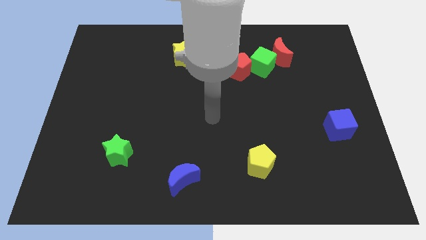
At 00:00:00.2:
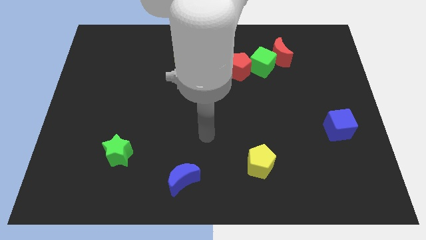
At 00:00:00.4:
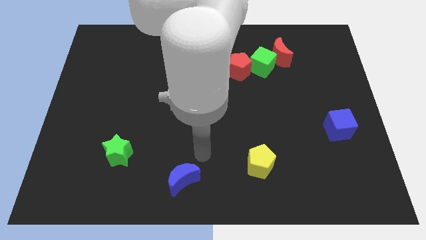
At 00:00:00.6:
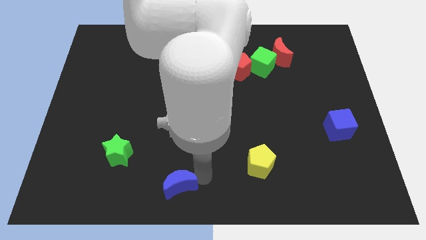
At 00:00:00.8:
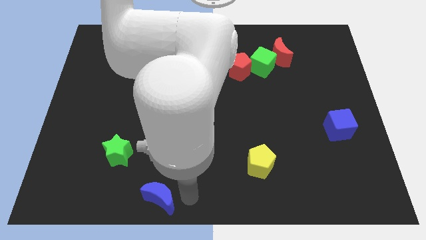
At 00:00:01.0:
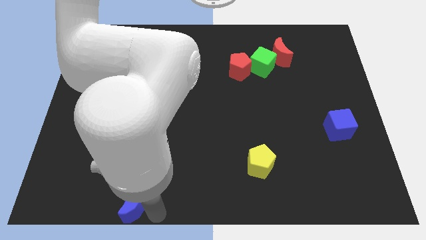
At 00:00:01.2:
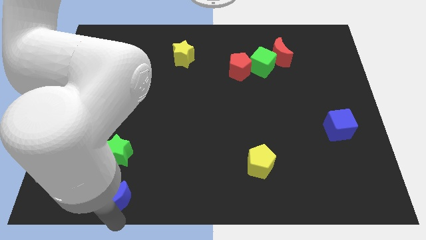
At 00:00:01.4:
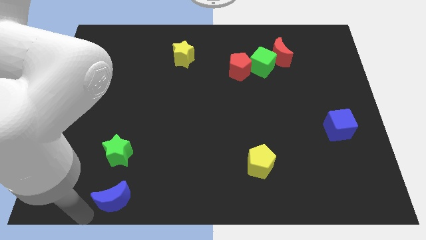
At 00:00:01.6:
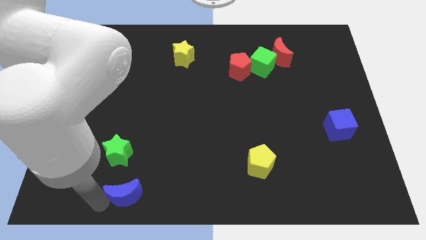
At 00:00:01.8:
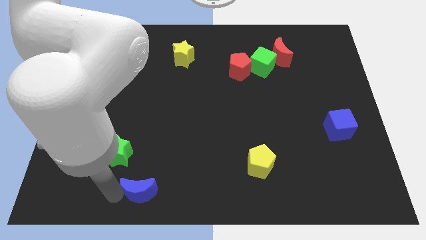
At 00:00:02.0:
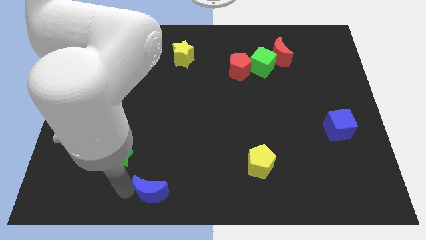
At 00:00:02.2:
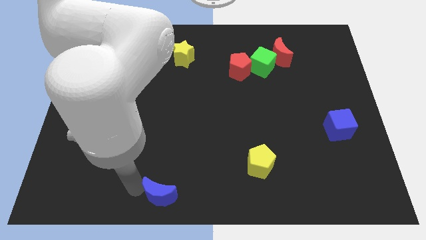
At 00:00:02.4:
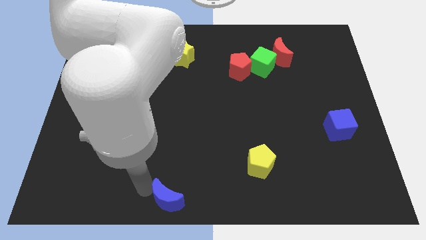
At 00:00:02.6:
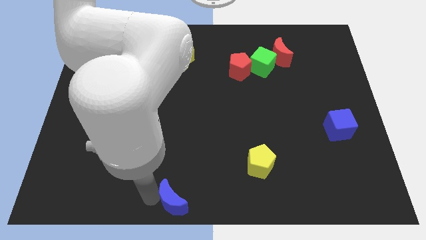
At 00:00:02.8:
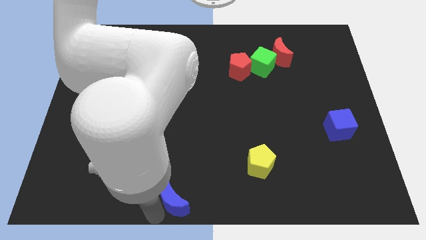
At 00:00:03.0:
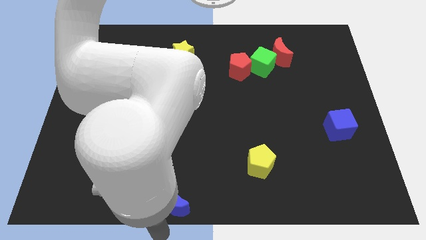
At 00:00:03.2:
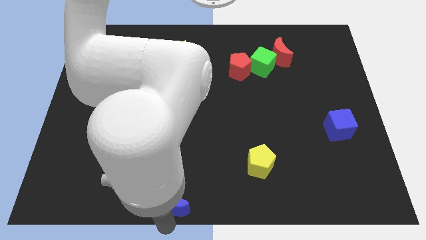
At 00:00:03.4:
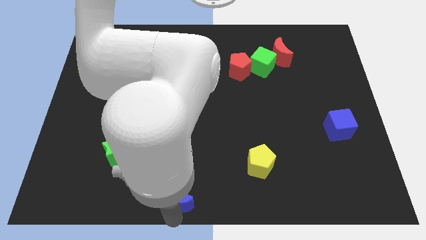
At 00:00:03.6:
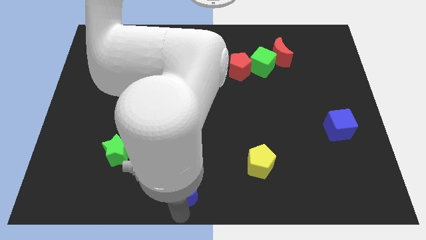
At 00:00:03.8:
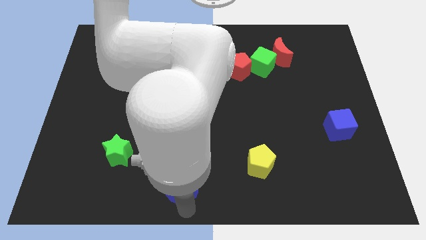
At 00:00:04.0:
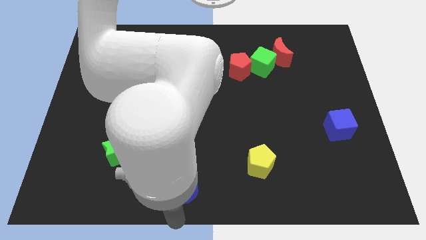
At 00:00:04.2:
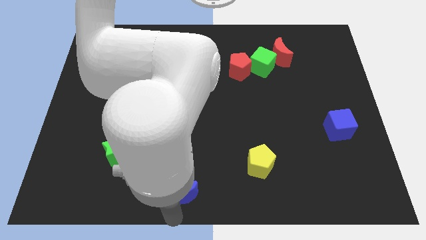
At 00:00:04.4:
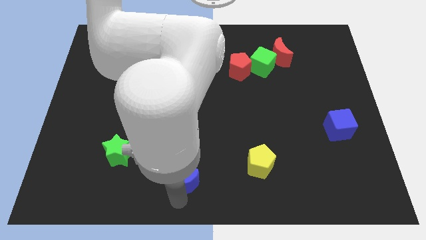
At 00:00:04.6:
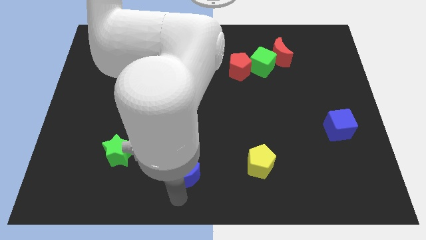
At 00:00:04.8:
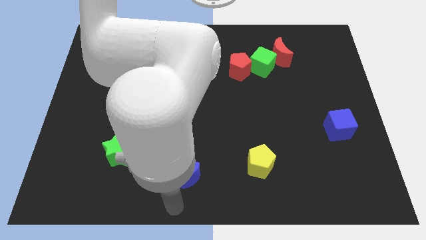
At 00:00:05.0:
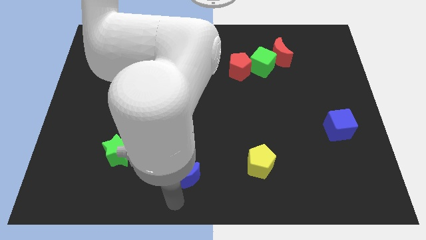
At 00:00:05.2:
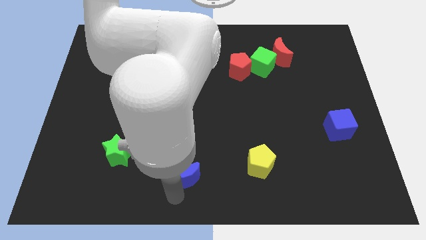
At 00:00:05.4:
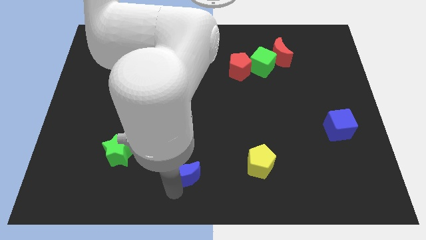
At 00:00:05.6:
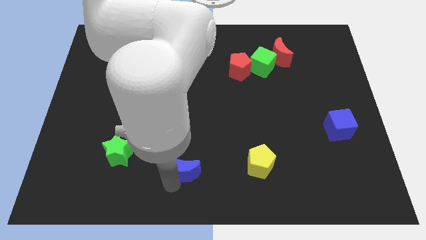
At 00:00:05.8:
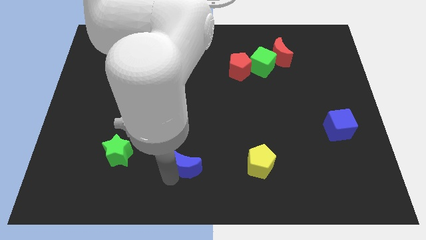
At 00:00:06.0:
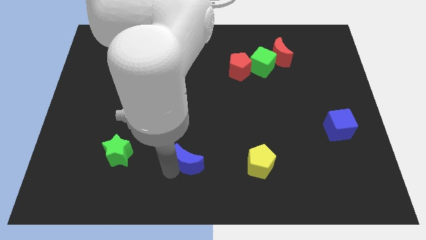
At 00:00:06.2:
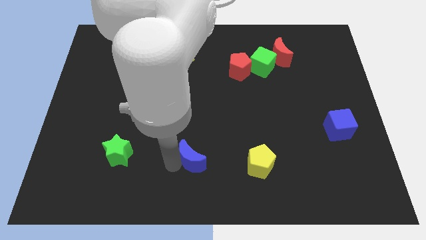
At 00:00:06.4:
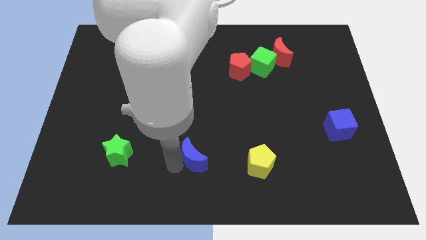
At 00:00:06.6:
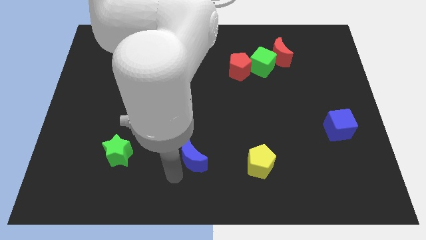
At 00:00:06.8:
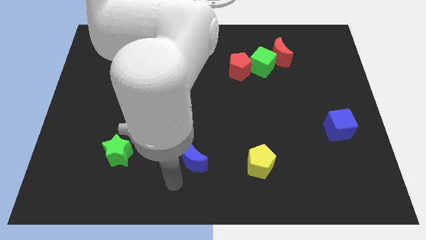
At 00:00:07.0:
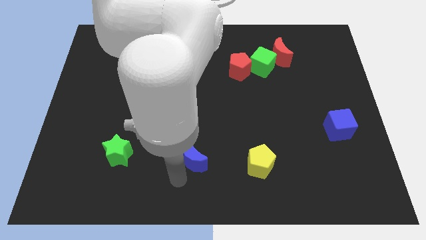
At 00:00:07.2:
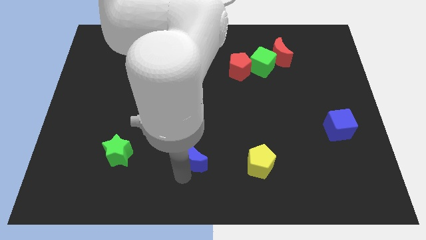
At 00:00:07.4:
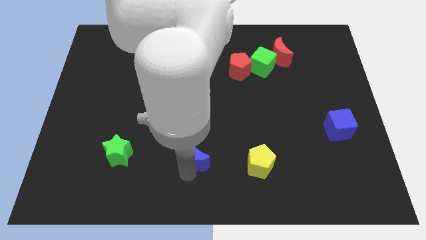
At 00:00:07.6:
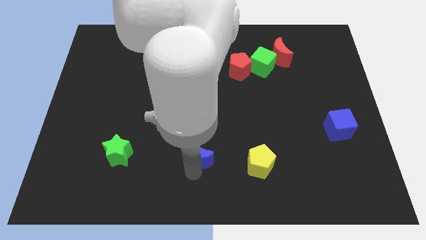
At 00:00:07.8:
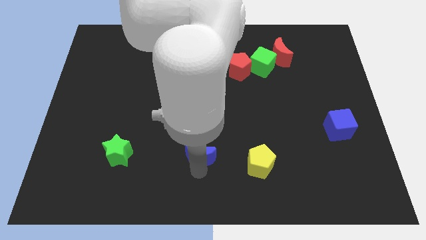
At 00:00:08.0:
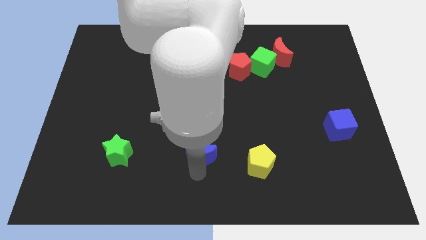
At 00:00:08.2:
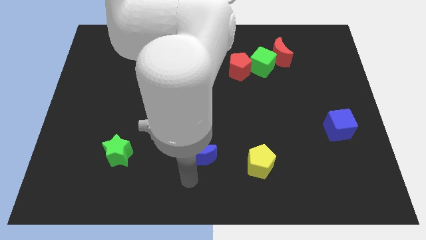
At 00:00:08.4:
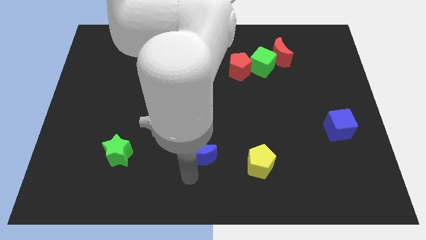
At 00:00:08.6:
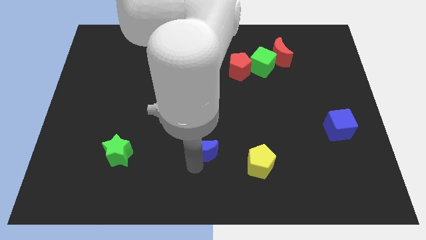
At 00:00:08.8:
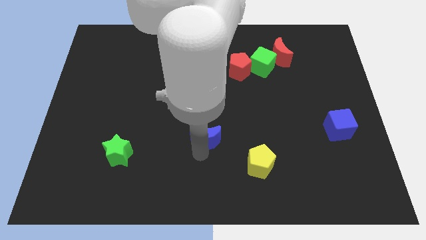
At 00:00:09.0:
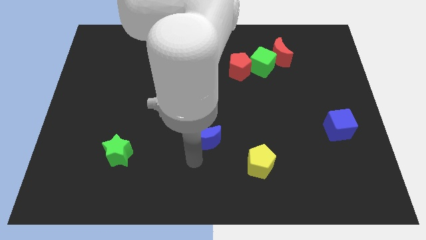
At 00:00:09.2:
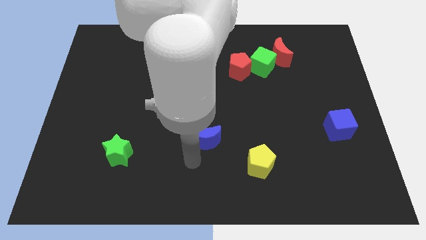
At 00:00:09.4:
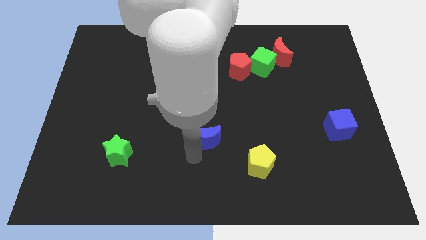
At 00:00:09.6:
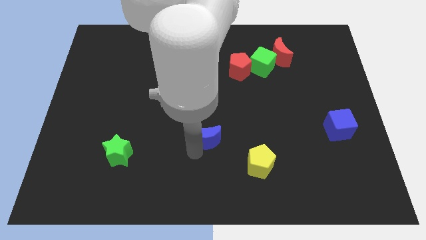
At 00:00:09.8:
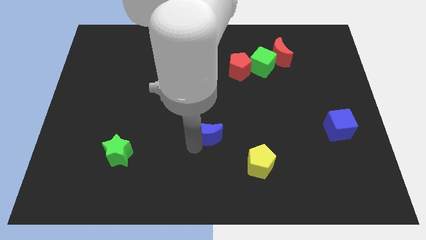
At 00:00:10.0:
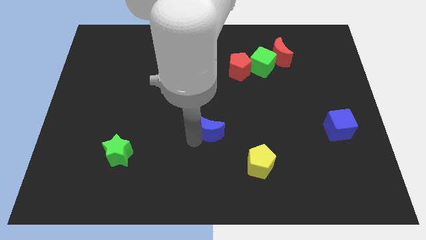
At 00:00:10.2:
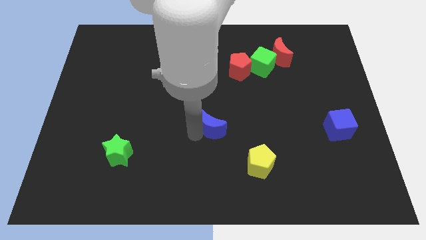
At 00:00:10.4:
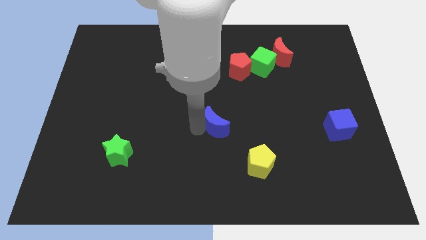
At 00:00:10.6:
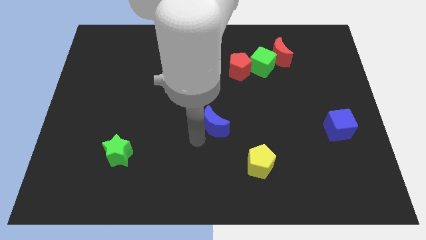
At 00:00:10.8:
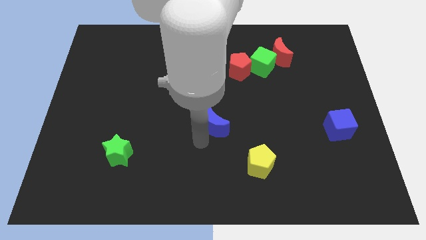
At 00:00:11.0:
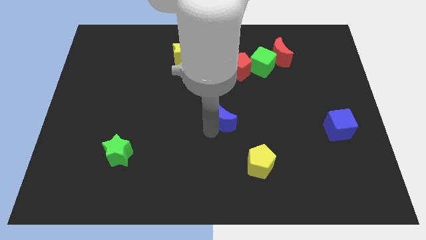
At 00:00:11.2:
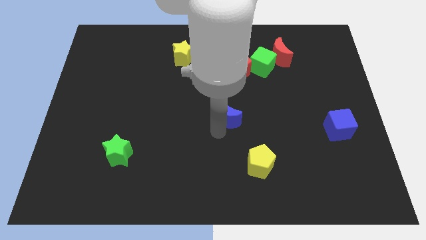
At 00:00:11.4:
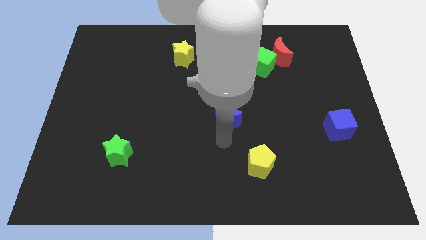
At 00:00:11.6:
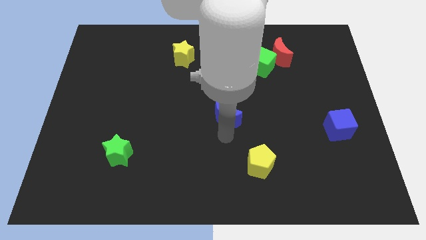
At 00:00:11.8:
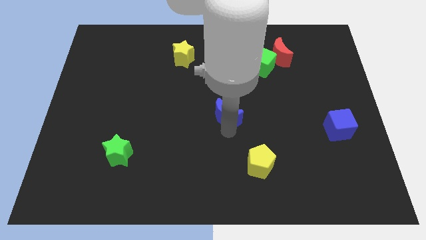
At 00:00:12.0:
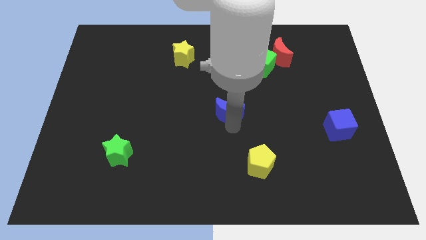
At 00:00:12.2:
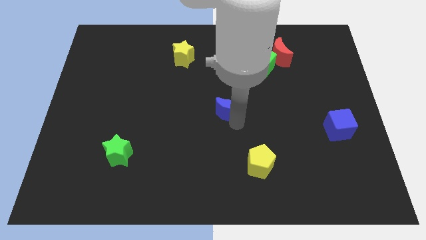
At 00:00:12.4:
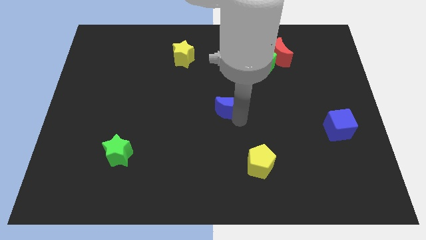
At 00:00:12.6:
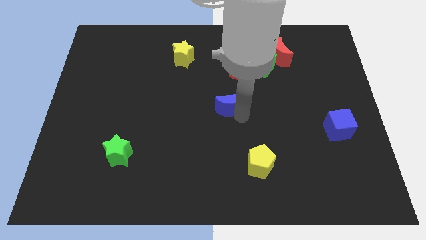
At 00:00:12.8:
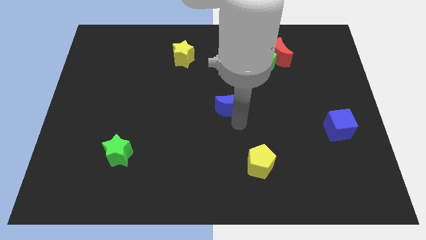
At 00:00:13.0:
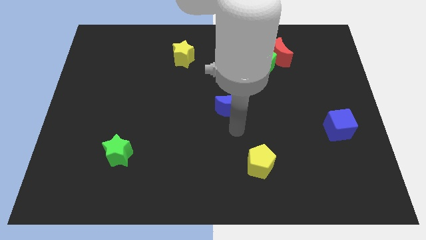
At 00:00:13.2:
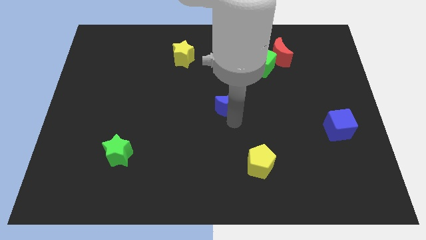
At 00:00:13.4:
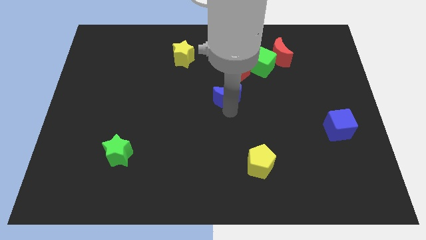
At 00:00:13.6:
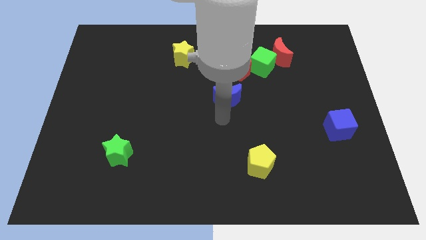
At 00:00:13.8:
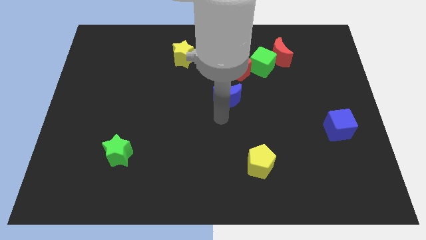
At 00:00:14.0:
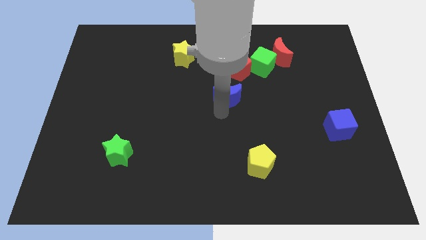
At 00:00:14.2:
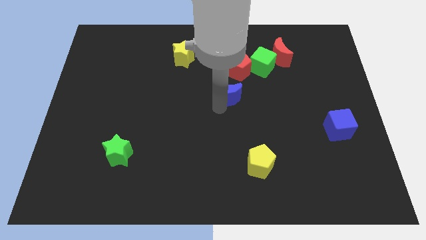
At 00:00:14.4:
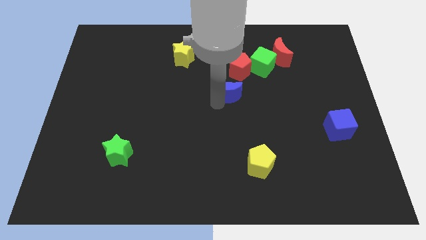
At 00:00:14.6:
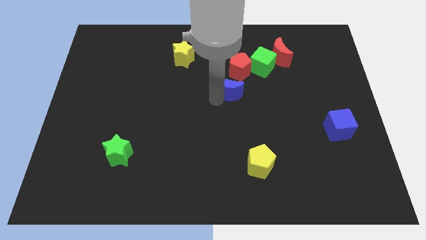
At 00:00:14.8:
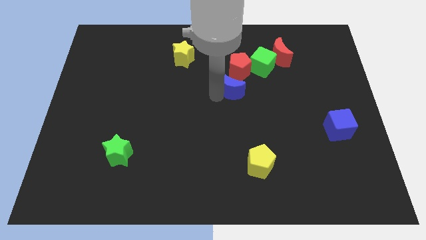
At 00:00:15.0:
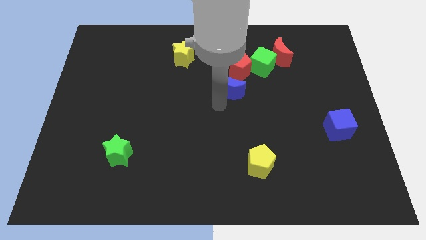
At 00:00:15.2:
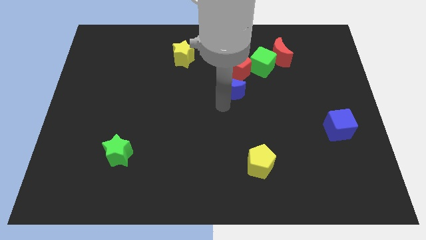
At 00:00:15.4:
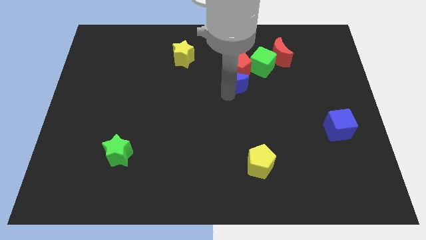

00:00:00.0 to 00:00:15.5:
move the blue moon towards the red pentagon
